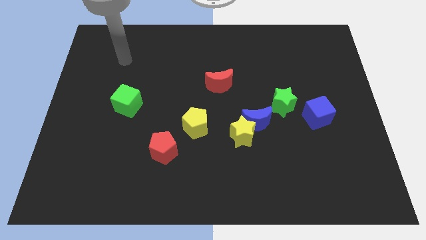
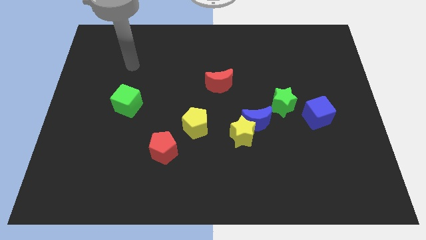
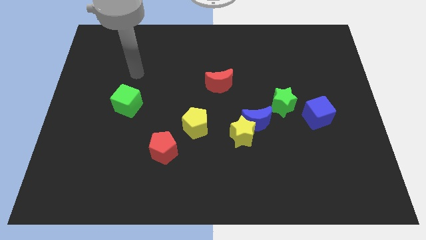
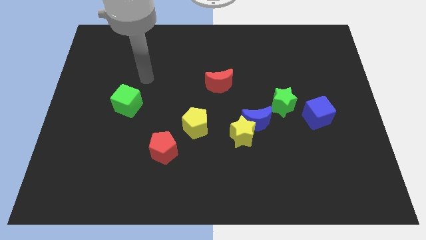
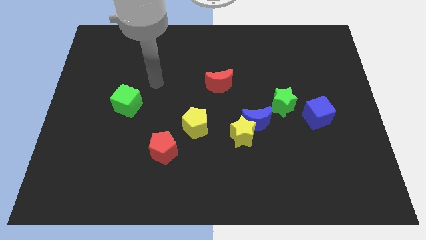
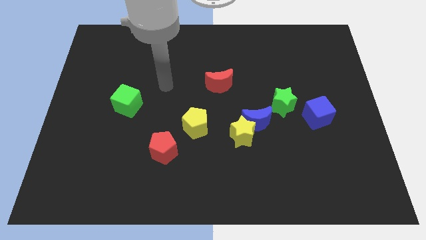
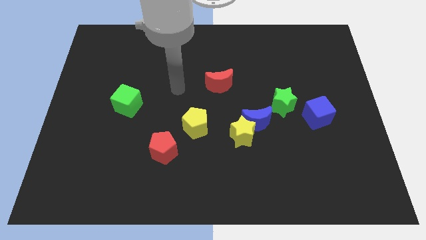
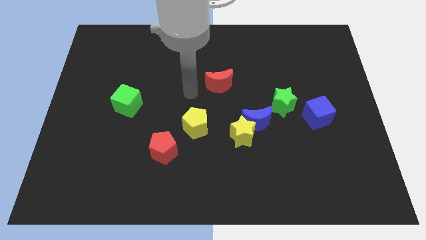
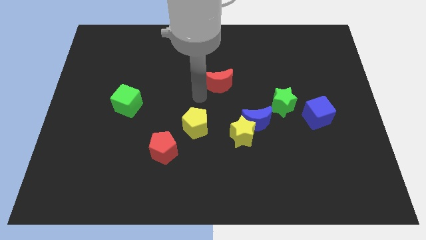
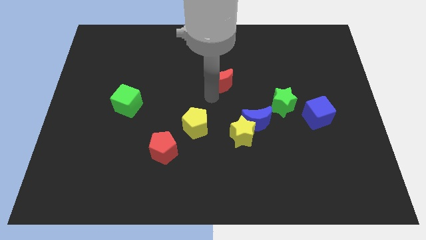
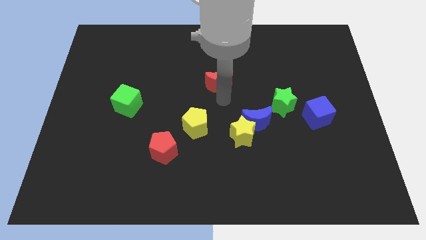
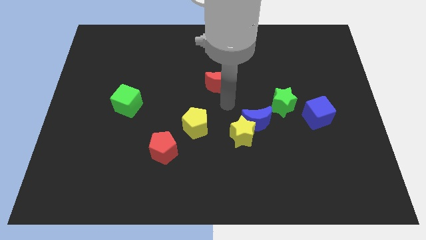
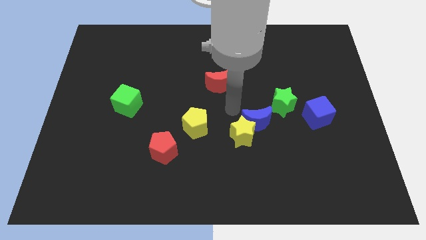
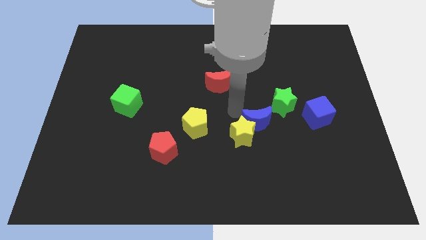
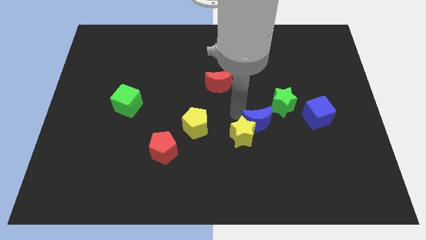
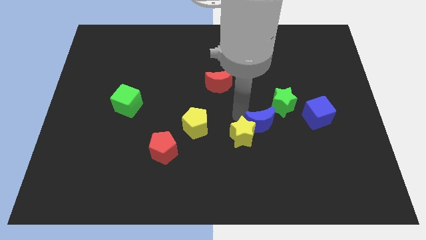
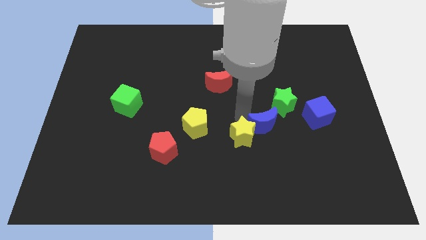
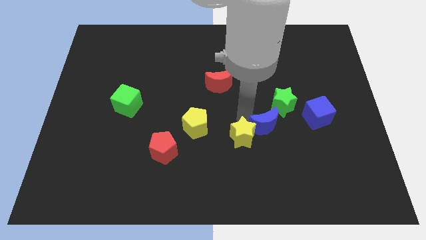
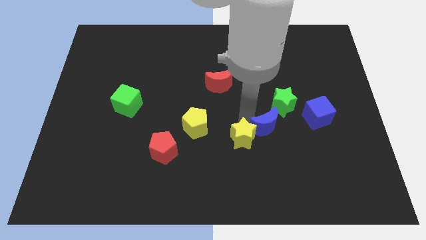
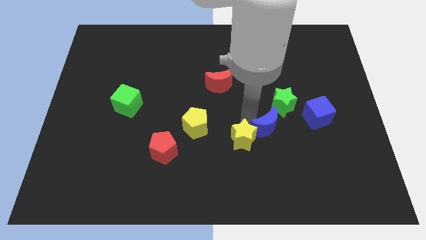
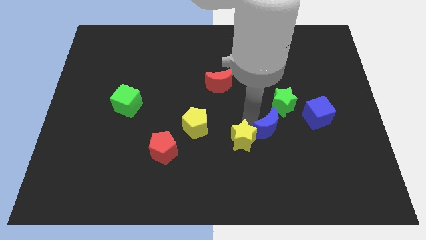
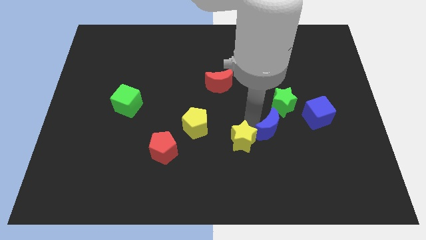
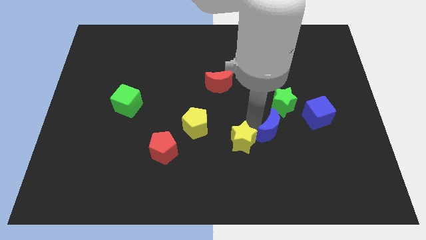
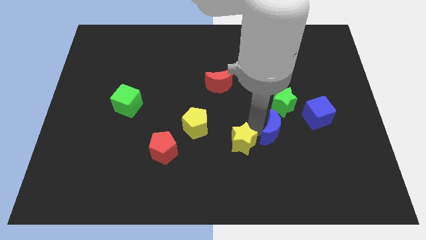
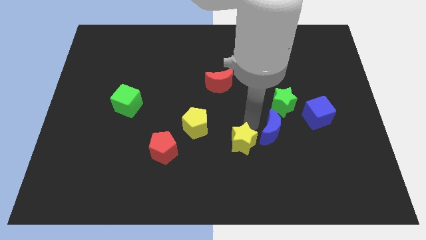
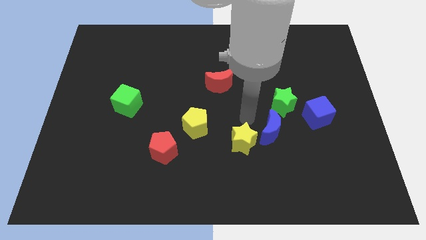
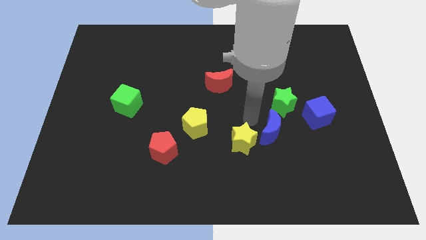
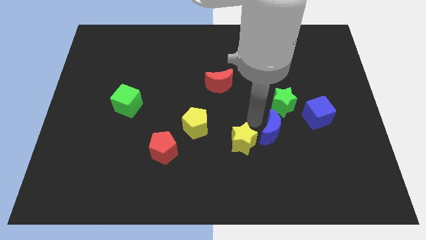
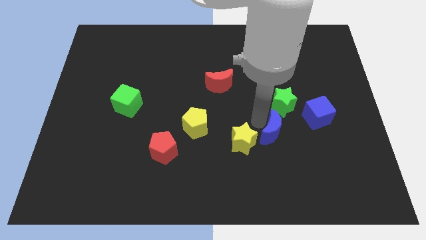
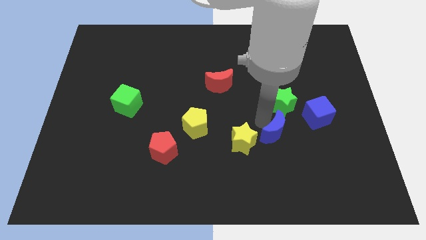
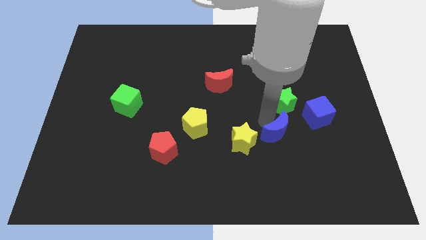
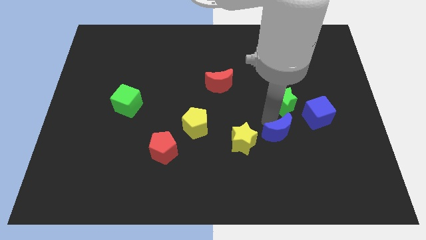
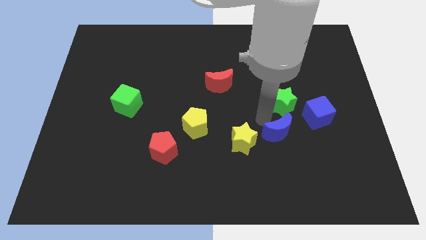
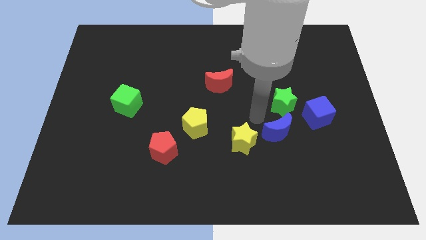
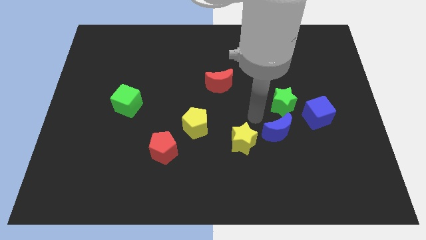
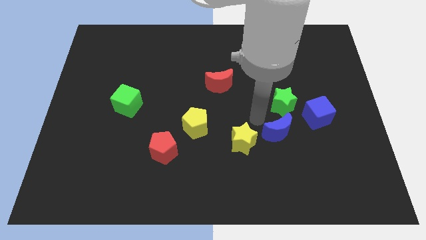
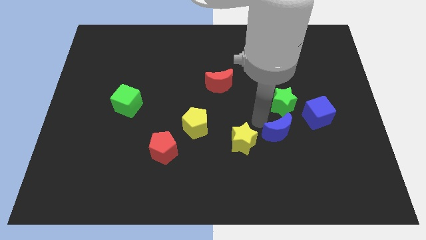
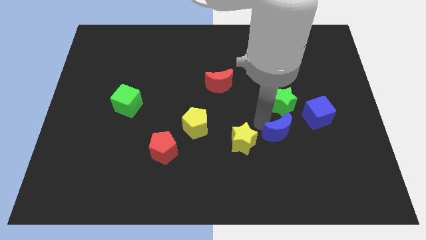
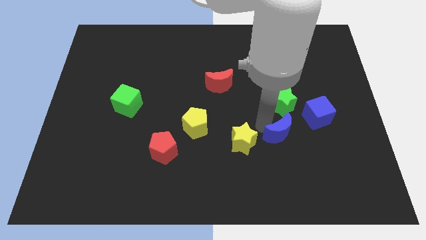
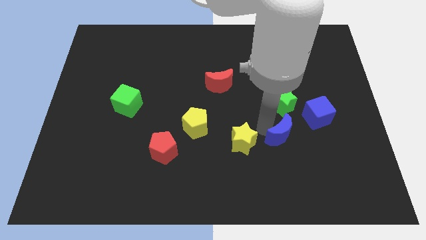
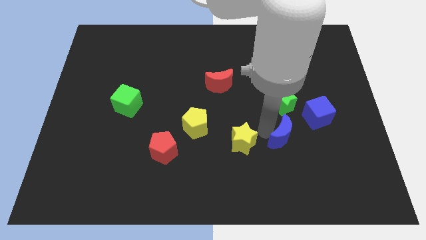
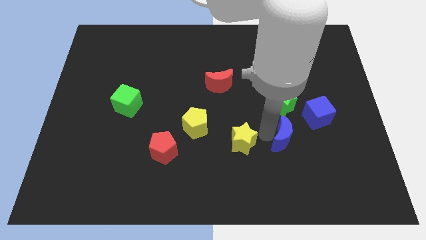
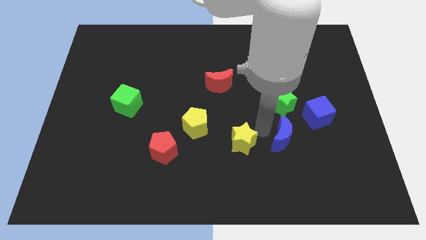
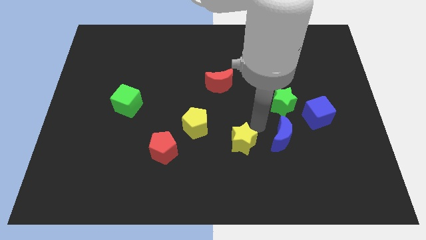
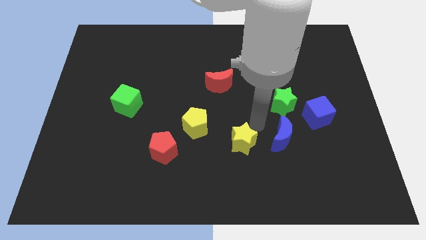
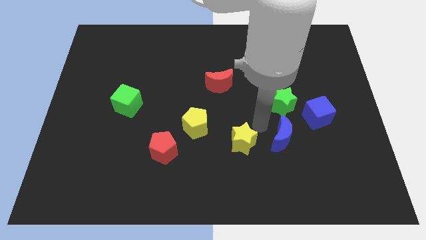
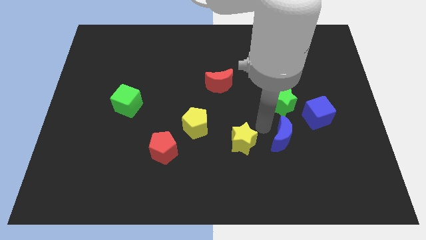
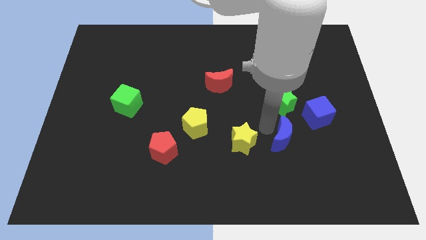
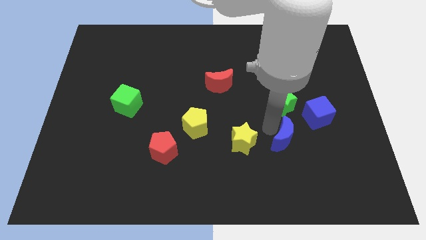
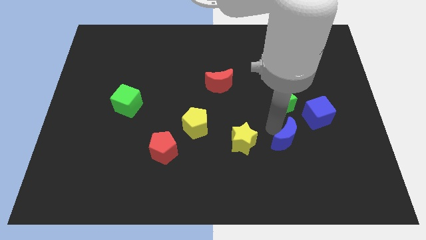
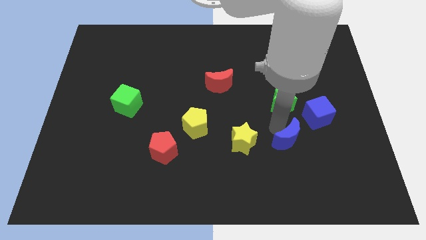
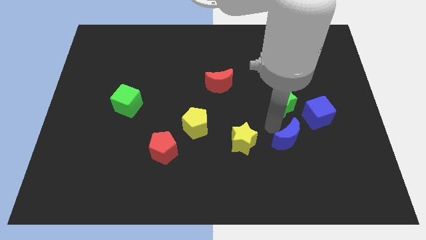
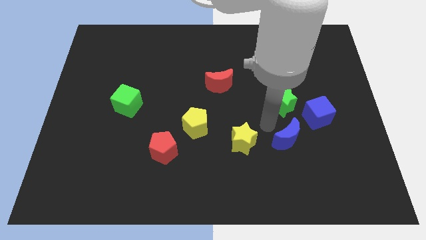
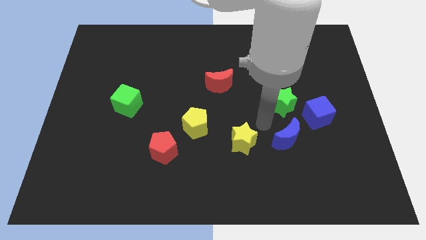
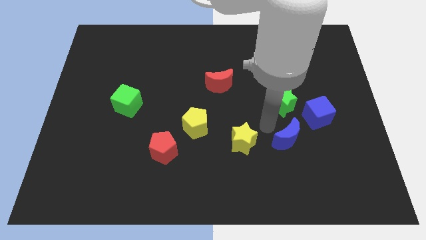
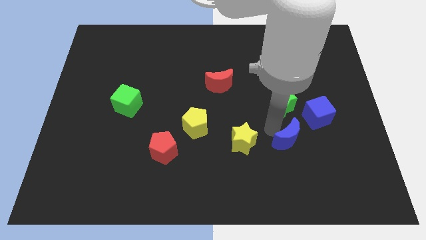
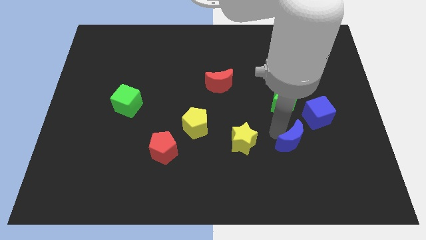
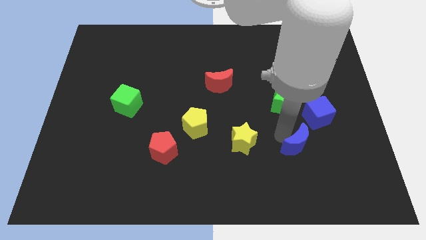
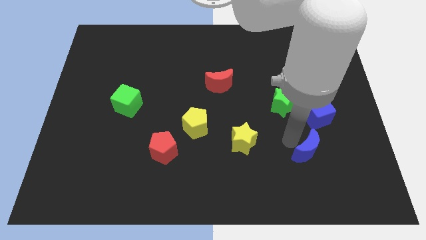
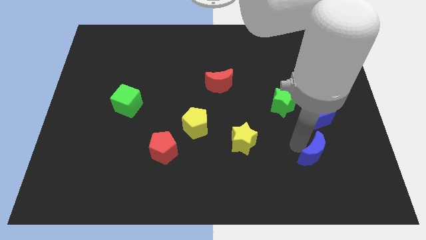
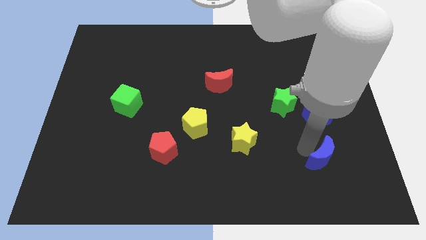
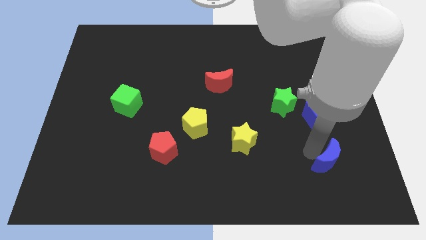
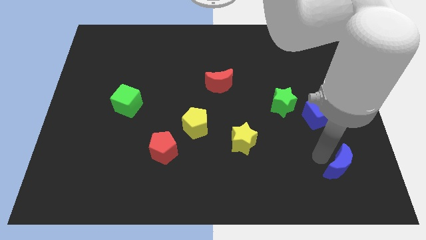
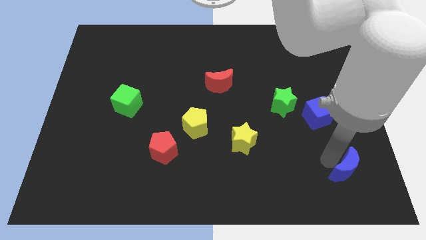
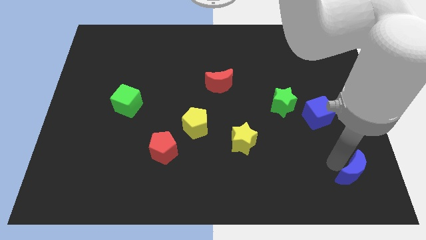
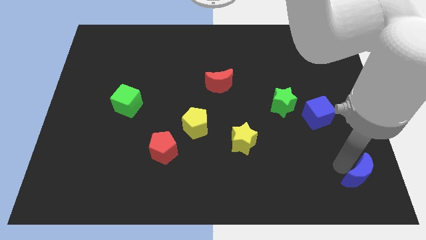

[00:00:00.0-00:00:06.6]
slide the blue moon to the lower right corner
